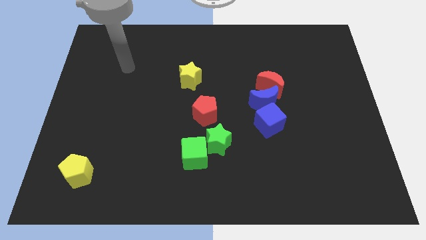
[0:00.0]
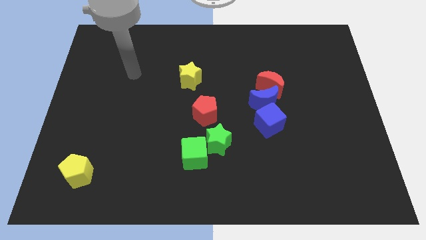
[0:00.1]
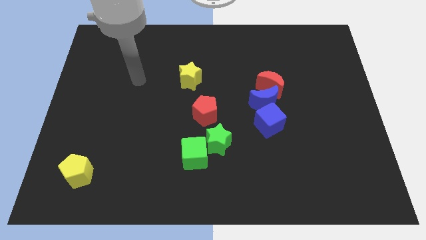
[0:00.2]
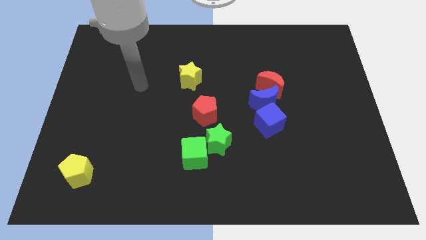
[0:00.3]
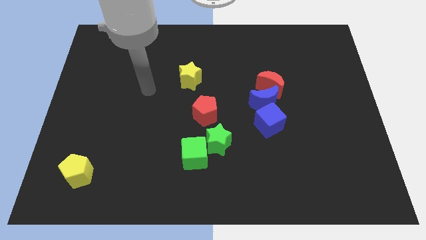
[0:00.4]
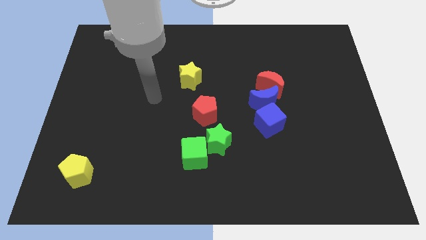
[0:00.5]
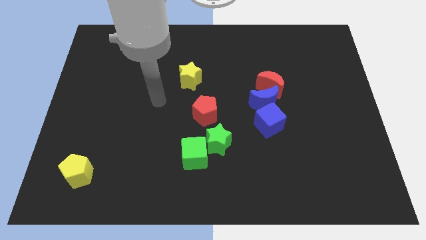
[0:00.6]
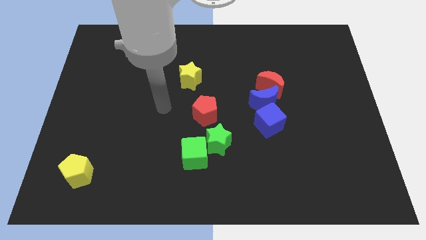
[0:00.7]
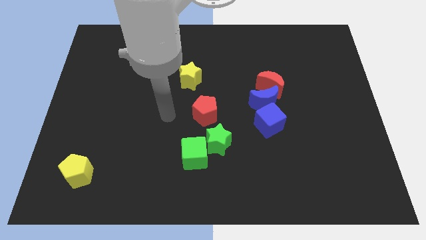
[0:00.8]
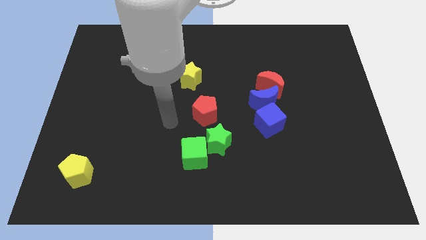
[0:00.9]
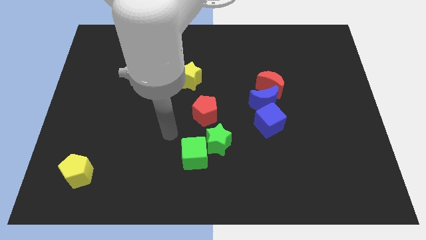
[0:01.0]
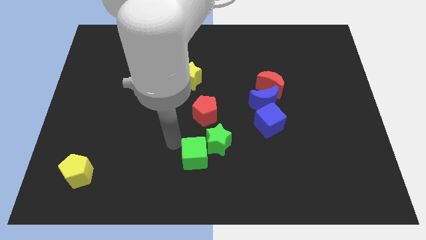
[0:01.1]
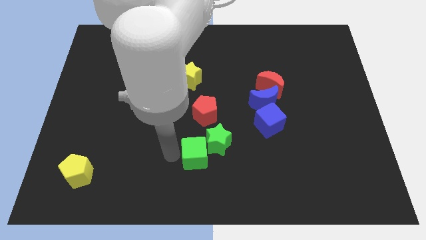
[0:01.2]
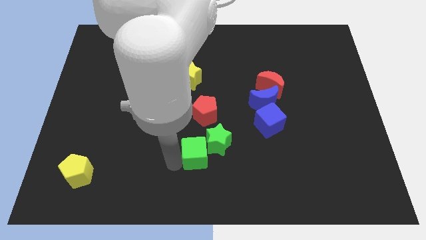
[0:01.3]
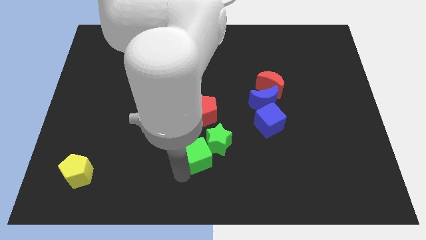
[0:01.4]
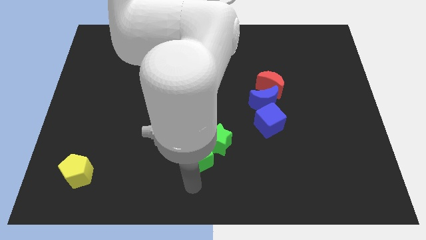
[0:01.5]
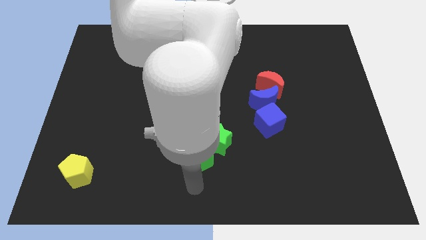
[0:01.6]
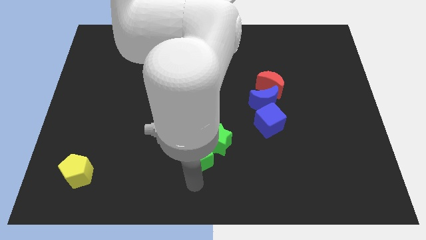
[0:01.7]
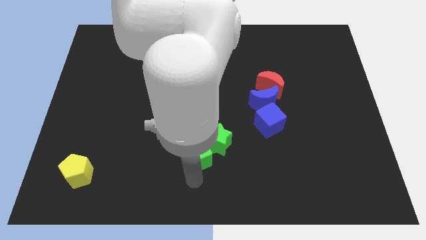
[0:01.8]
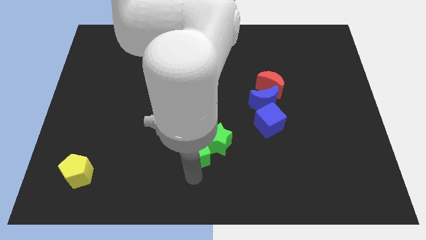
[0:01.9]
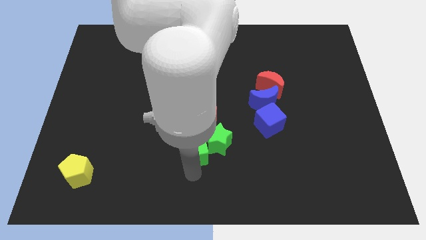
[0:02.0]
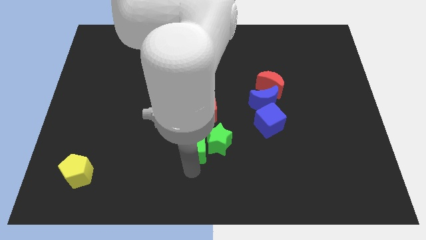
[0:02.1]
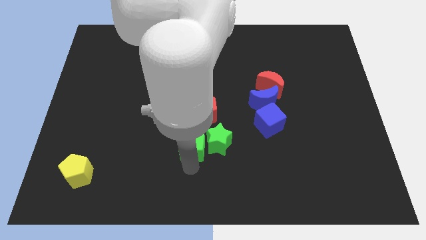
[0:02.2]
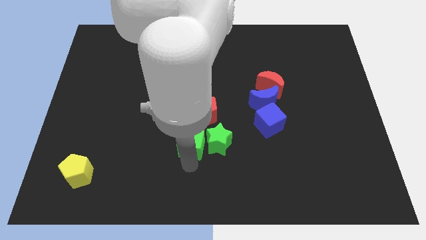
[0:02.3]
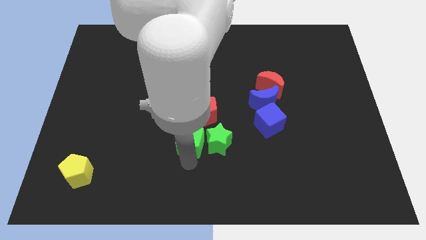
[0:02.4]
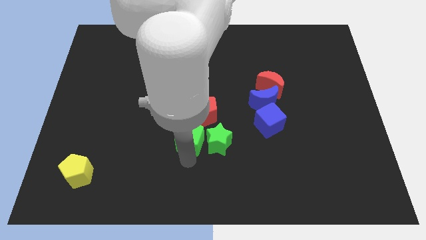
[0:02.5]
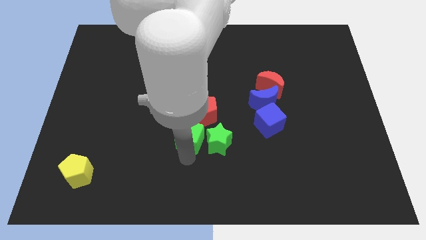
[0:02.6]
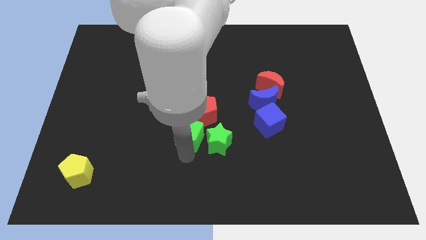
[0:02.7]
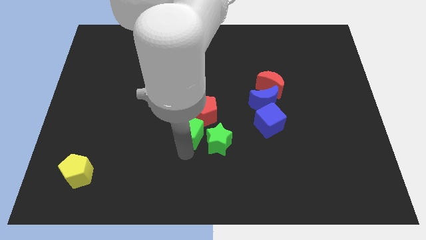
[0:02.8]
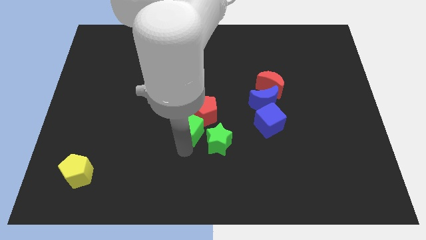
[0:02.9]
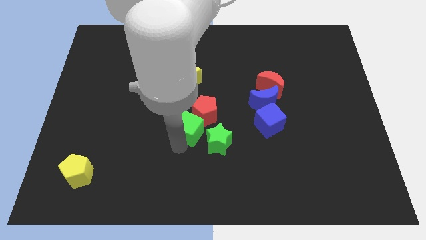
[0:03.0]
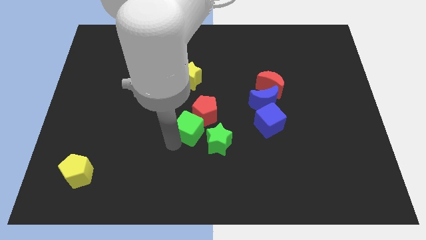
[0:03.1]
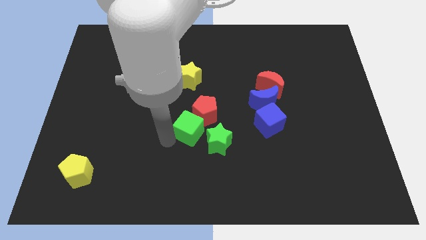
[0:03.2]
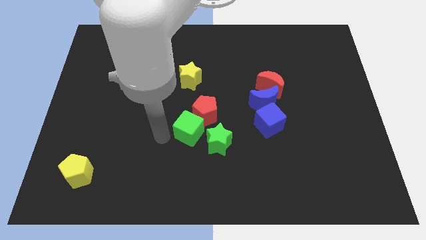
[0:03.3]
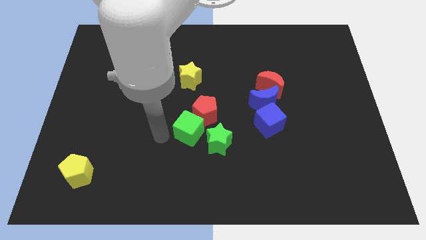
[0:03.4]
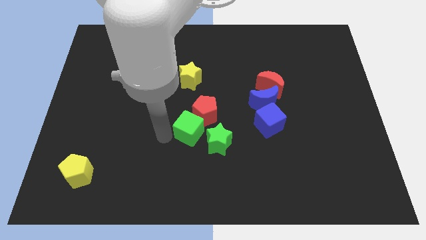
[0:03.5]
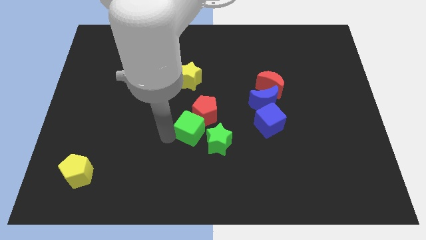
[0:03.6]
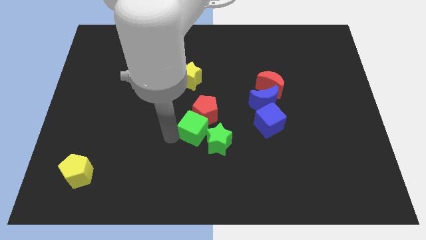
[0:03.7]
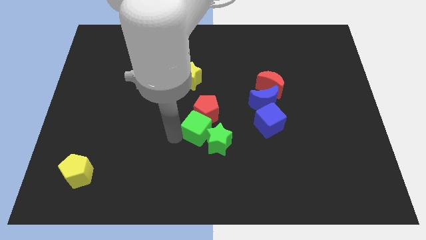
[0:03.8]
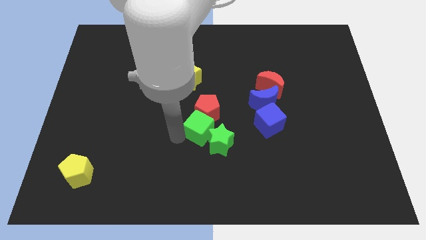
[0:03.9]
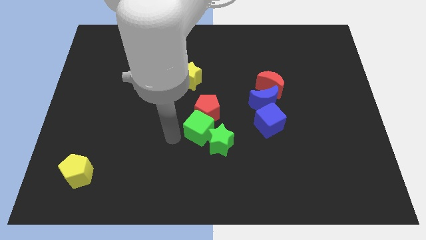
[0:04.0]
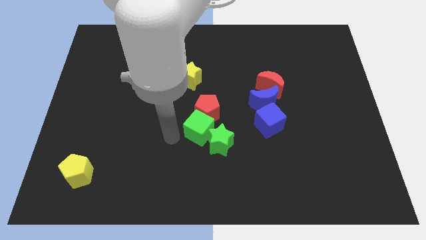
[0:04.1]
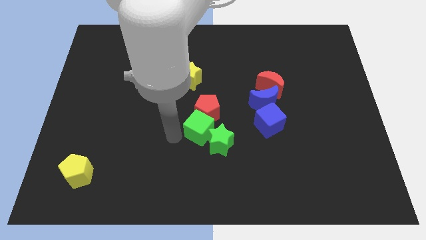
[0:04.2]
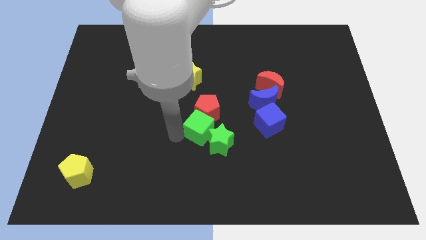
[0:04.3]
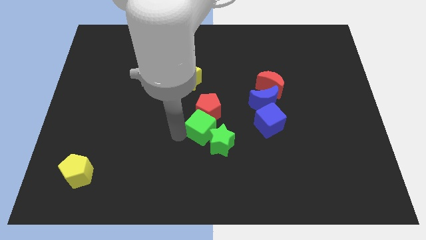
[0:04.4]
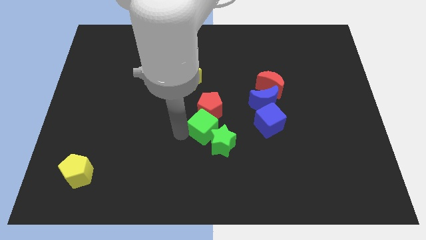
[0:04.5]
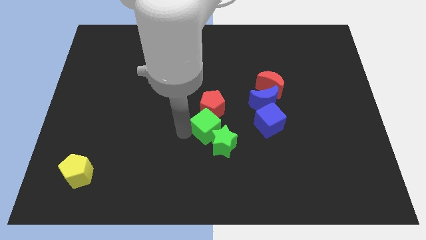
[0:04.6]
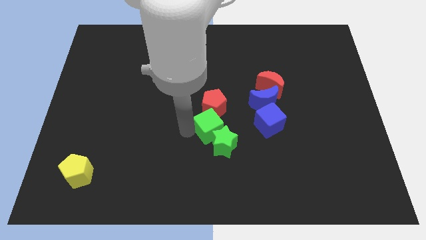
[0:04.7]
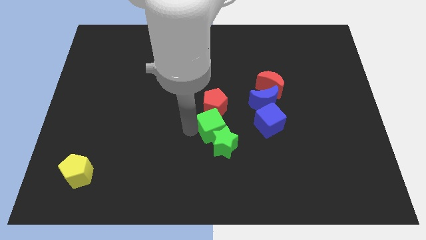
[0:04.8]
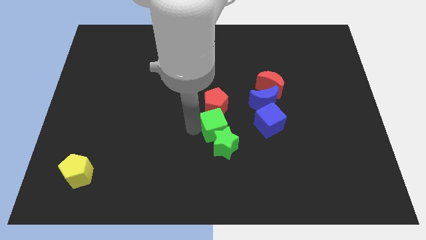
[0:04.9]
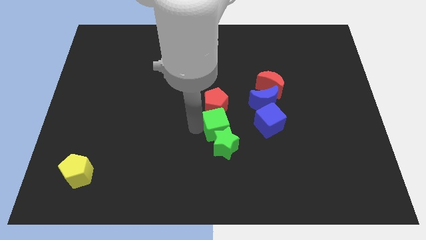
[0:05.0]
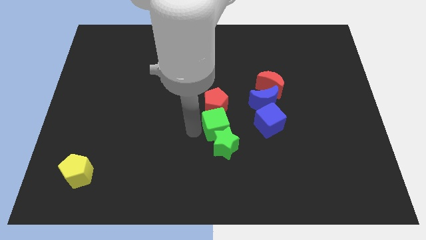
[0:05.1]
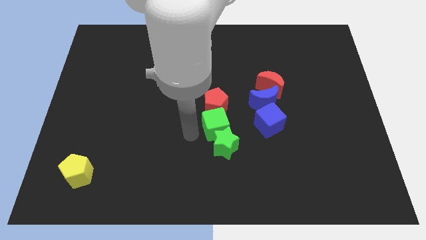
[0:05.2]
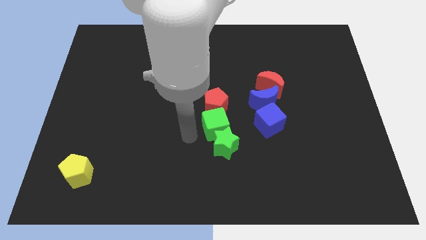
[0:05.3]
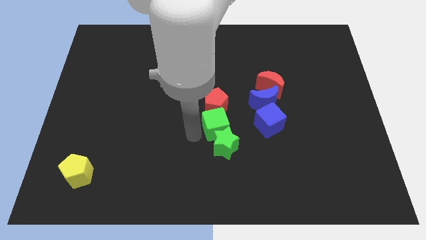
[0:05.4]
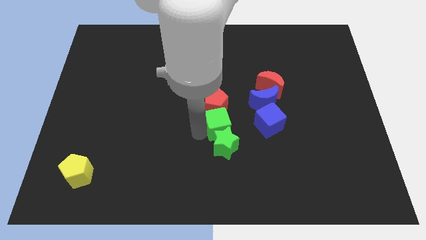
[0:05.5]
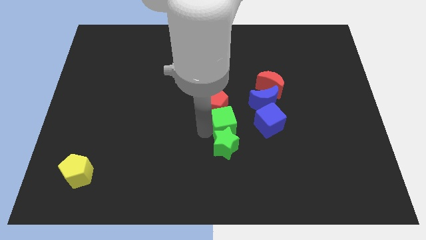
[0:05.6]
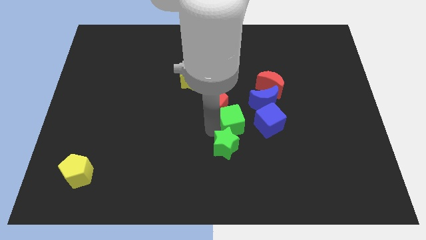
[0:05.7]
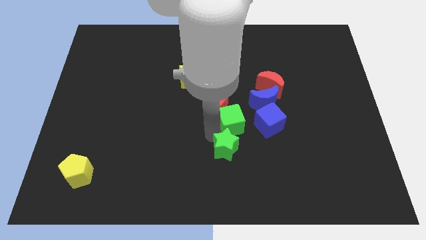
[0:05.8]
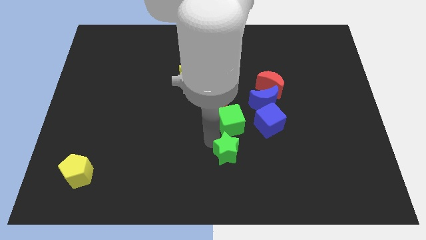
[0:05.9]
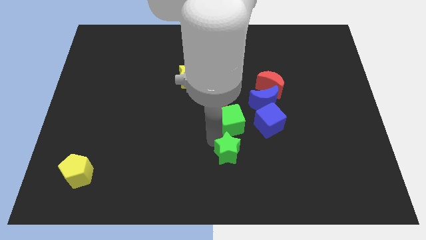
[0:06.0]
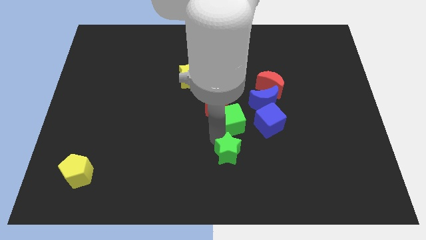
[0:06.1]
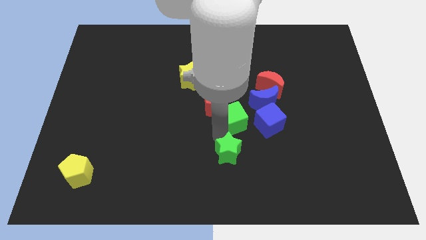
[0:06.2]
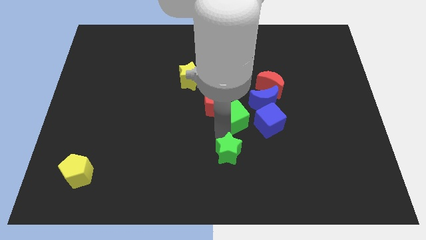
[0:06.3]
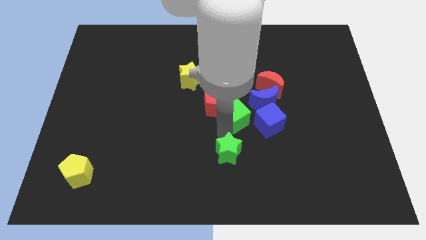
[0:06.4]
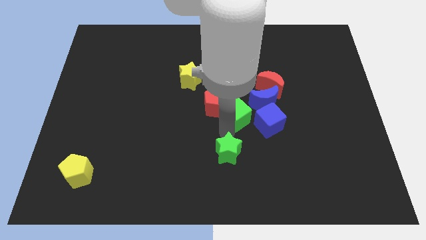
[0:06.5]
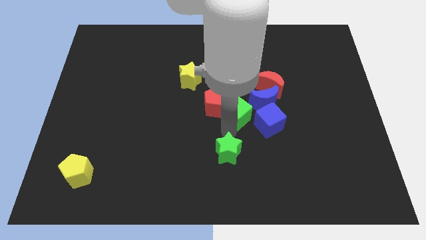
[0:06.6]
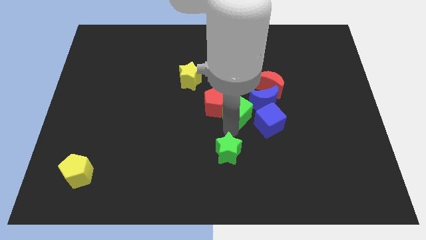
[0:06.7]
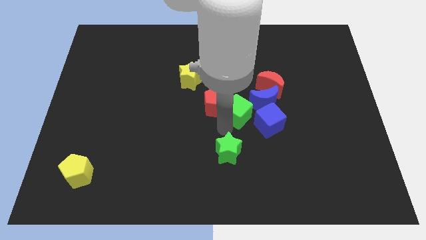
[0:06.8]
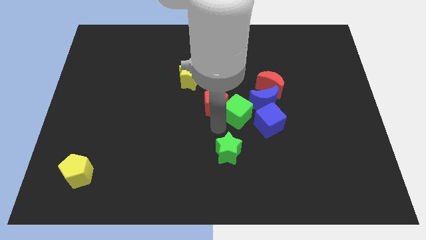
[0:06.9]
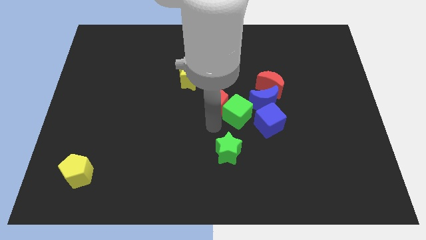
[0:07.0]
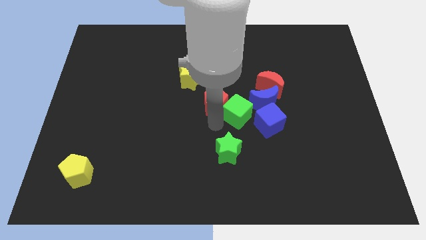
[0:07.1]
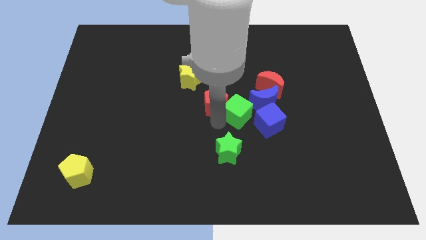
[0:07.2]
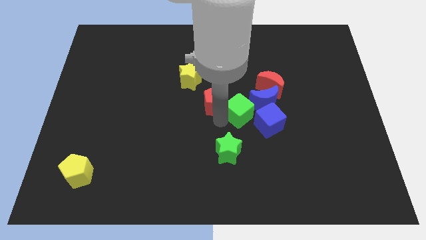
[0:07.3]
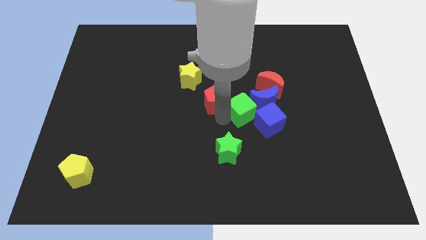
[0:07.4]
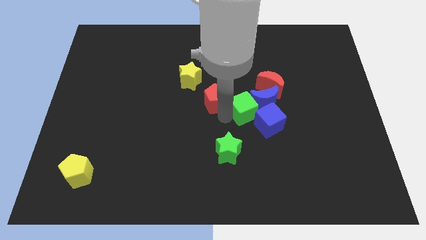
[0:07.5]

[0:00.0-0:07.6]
slide the green cube to the blue moon
